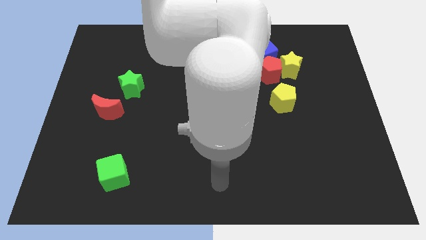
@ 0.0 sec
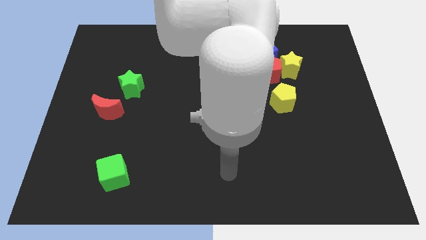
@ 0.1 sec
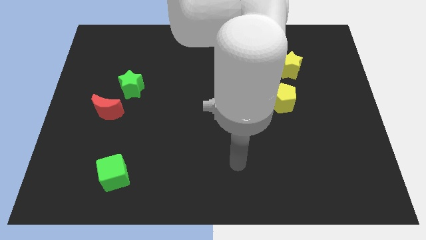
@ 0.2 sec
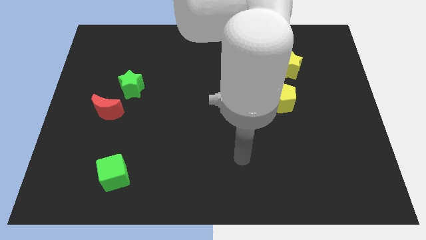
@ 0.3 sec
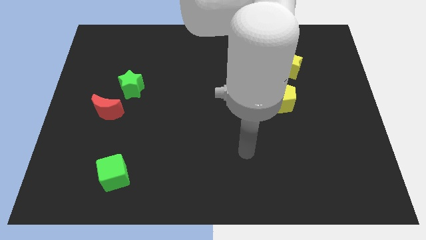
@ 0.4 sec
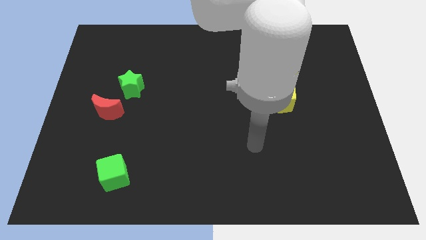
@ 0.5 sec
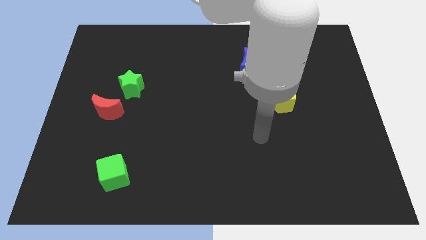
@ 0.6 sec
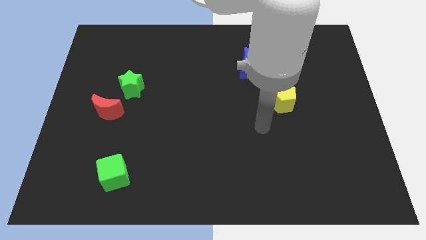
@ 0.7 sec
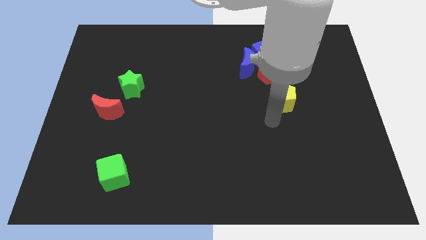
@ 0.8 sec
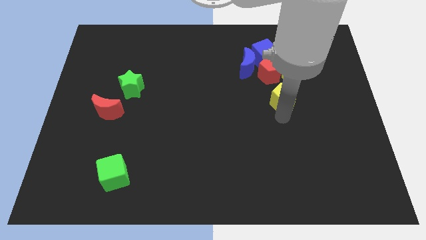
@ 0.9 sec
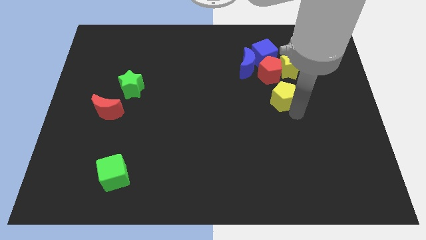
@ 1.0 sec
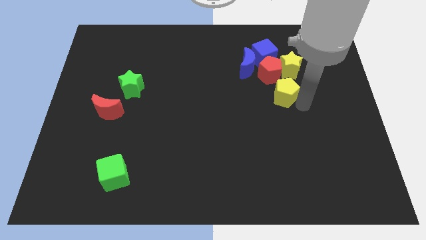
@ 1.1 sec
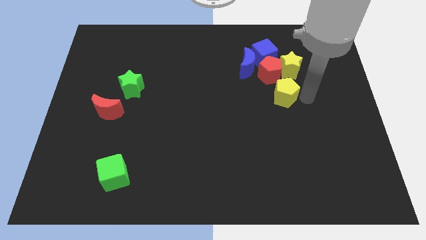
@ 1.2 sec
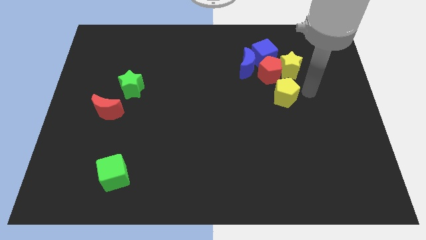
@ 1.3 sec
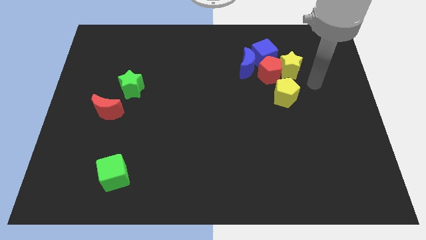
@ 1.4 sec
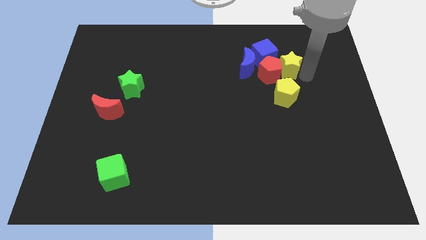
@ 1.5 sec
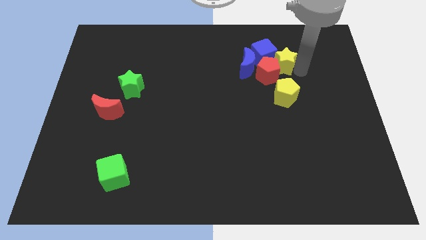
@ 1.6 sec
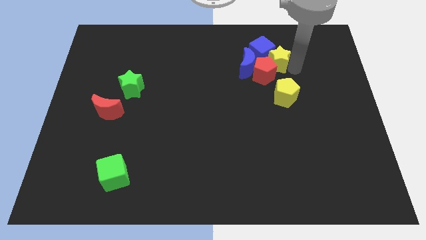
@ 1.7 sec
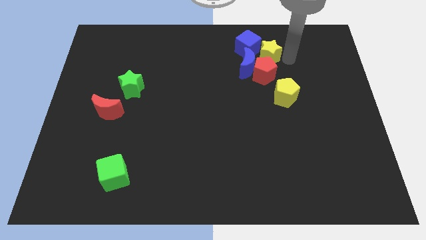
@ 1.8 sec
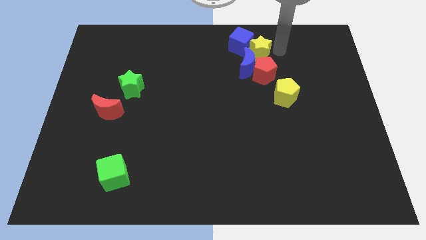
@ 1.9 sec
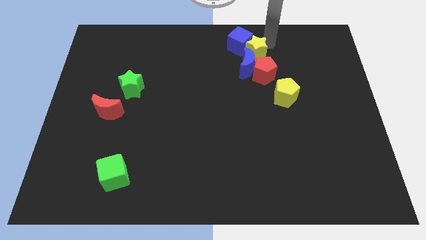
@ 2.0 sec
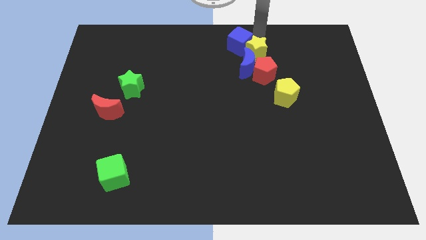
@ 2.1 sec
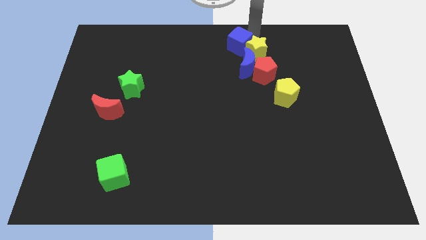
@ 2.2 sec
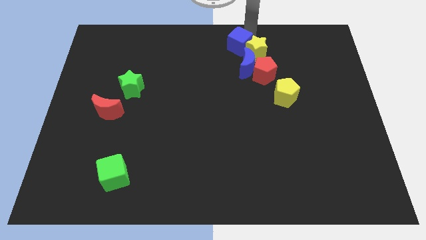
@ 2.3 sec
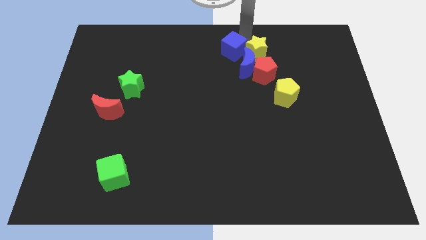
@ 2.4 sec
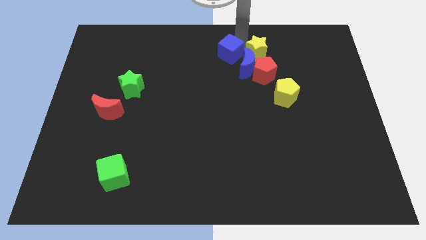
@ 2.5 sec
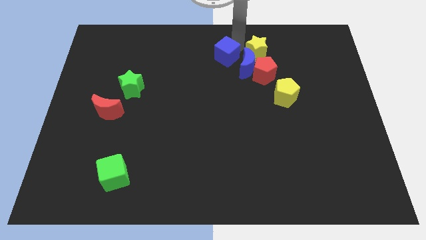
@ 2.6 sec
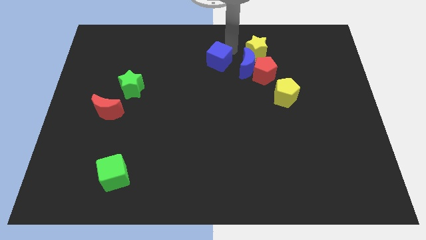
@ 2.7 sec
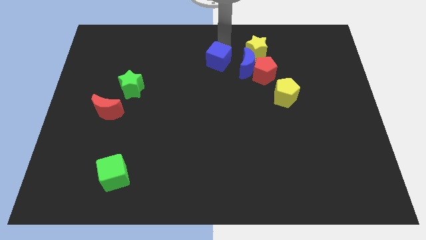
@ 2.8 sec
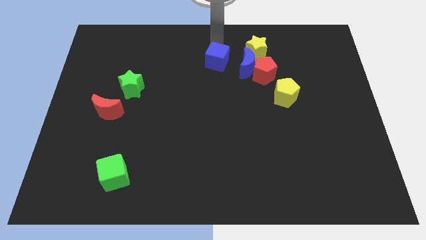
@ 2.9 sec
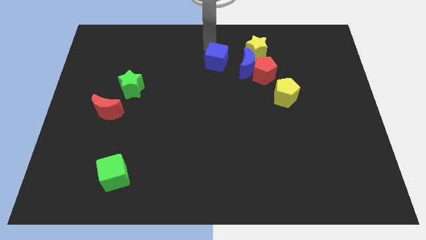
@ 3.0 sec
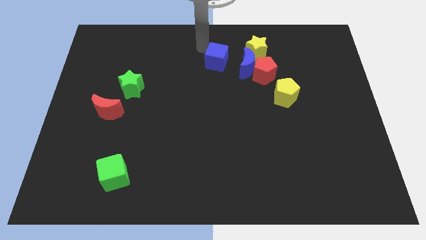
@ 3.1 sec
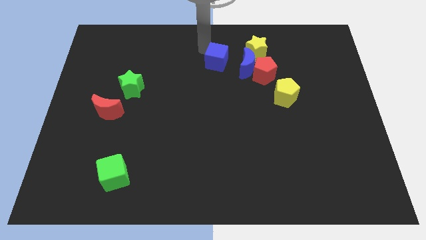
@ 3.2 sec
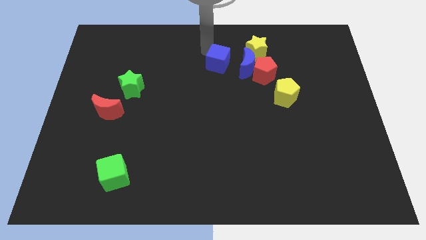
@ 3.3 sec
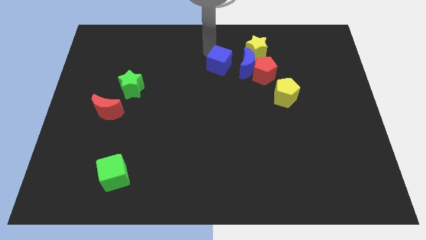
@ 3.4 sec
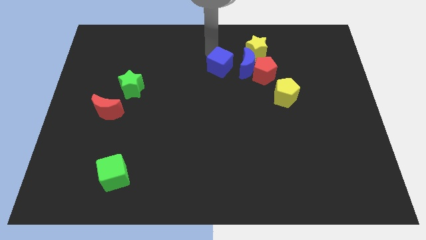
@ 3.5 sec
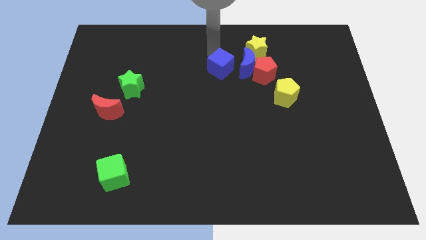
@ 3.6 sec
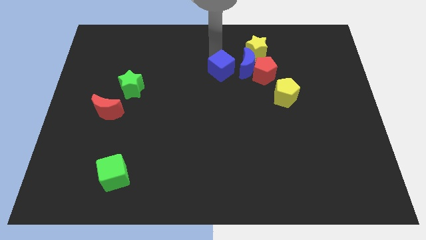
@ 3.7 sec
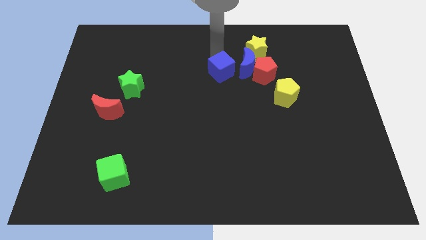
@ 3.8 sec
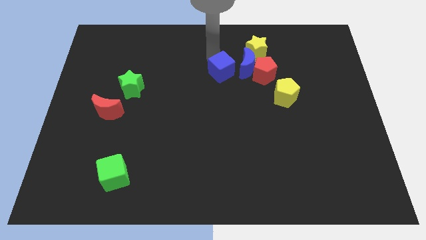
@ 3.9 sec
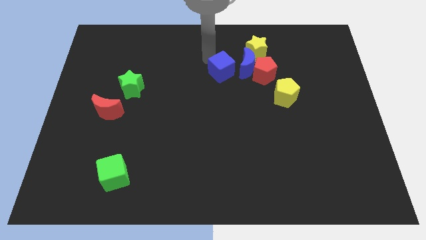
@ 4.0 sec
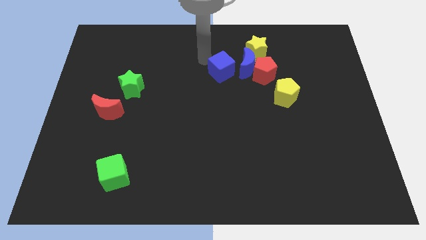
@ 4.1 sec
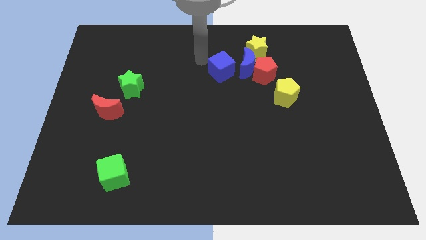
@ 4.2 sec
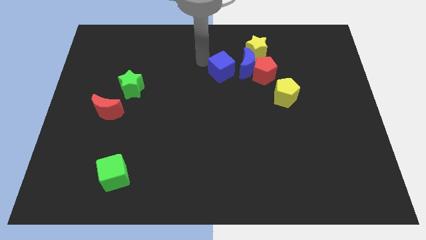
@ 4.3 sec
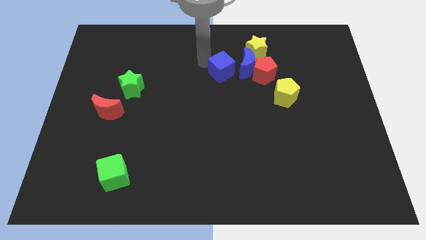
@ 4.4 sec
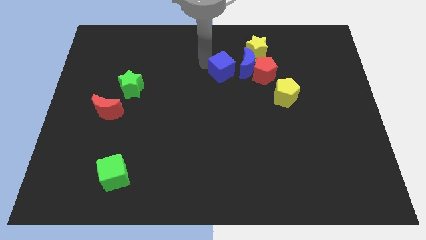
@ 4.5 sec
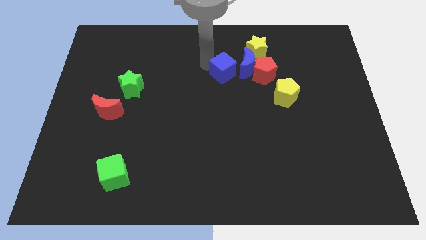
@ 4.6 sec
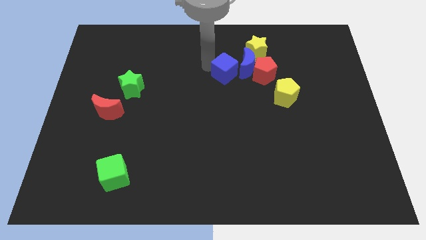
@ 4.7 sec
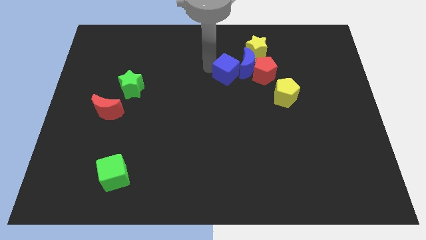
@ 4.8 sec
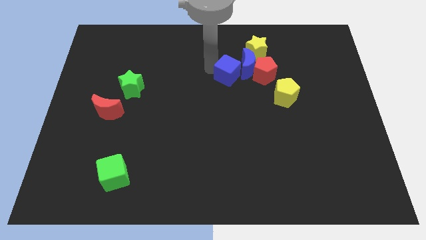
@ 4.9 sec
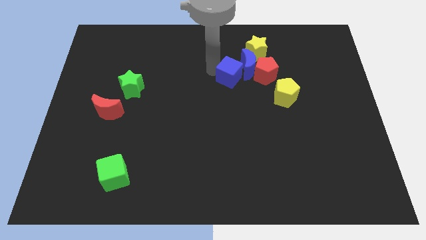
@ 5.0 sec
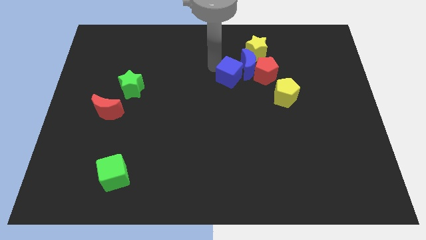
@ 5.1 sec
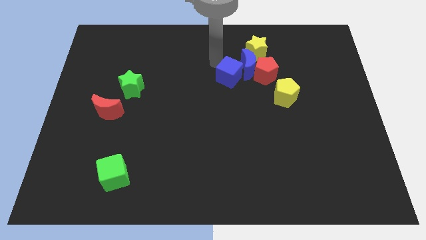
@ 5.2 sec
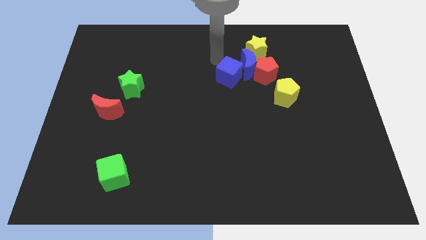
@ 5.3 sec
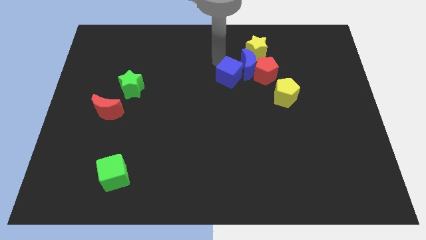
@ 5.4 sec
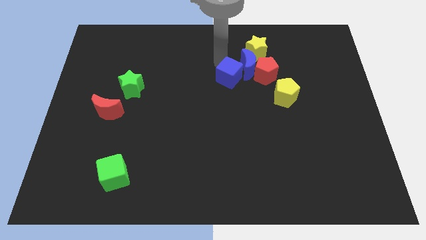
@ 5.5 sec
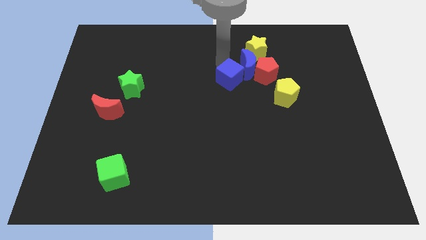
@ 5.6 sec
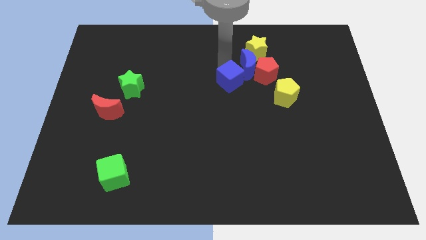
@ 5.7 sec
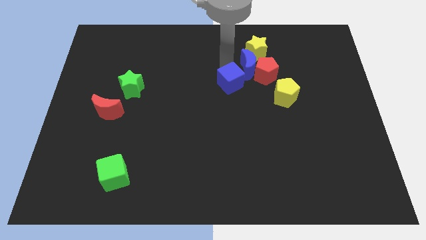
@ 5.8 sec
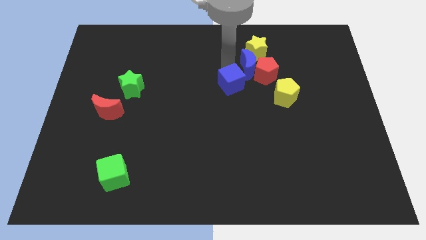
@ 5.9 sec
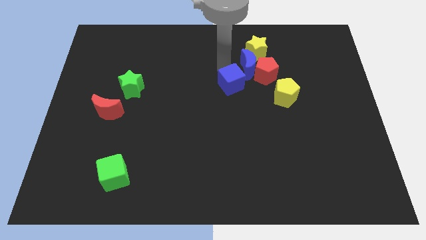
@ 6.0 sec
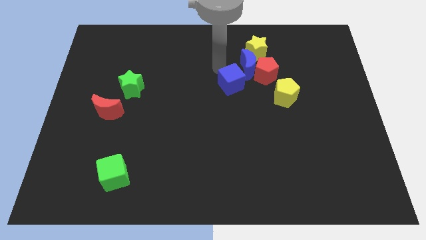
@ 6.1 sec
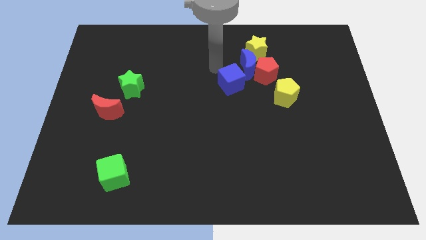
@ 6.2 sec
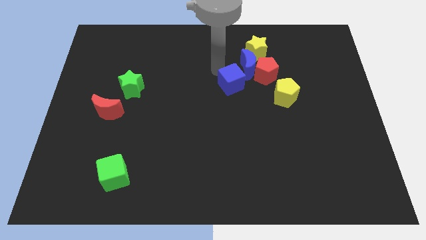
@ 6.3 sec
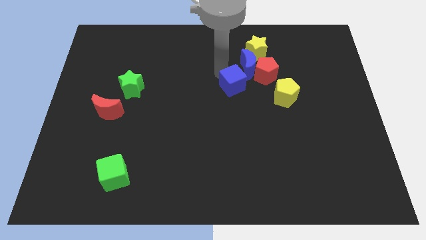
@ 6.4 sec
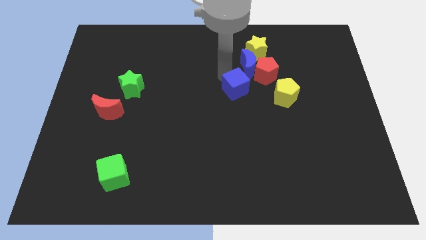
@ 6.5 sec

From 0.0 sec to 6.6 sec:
slightly move the blue cube downwards

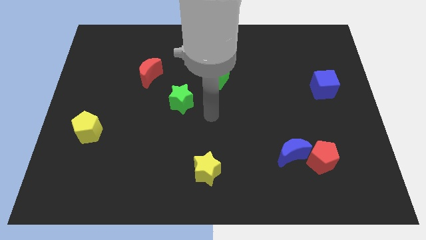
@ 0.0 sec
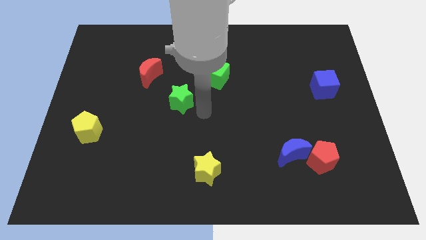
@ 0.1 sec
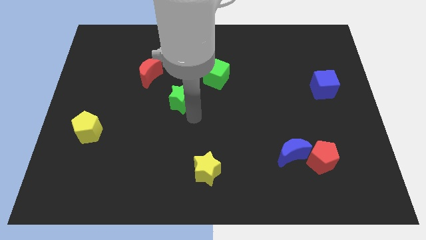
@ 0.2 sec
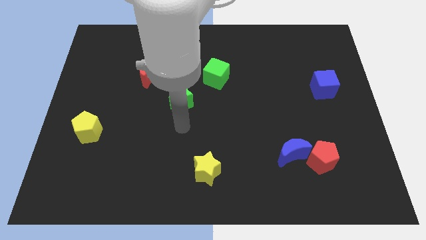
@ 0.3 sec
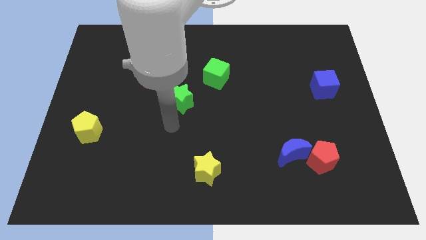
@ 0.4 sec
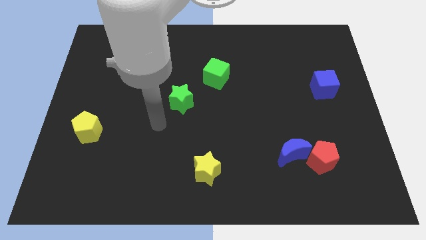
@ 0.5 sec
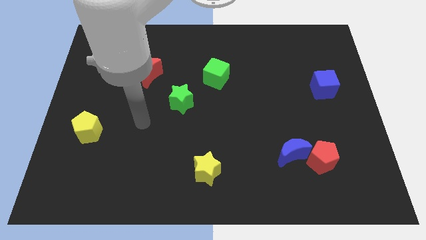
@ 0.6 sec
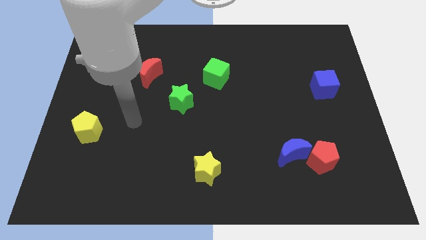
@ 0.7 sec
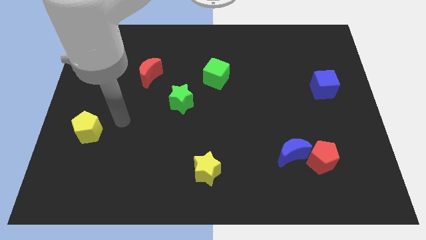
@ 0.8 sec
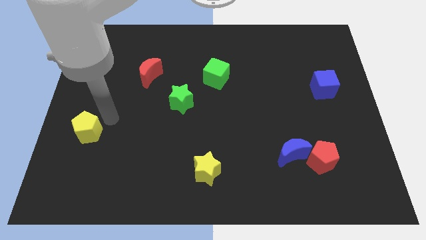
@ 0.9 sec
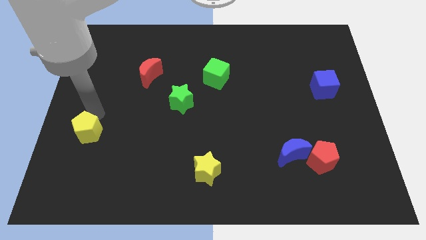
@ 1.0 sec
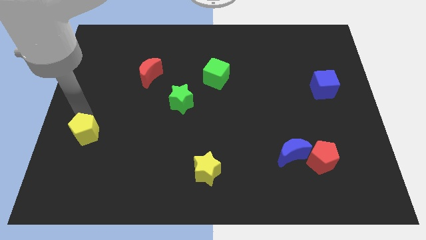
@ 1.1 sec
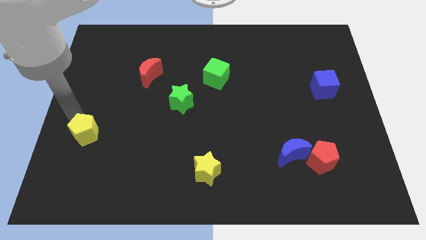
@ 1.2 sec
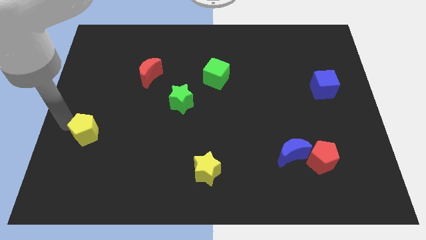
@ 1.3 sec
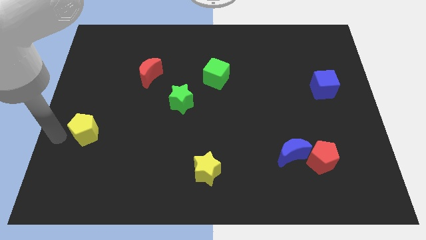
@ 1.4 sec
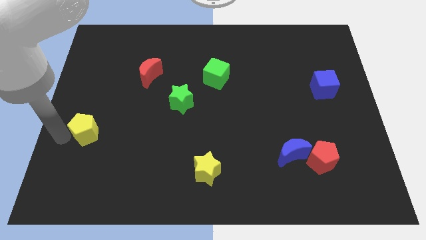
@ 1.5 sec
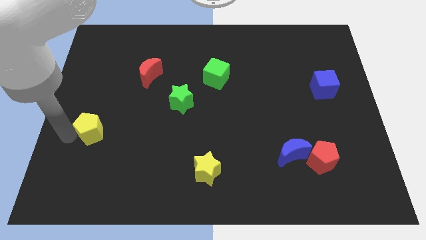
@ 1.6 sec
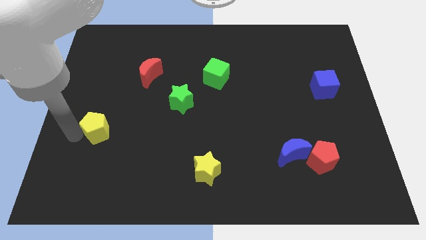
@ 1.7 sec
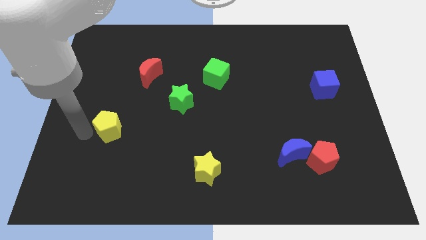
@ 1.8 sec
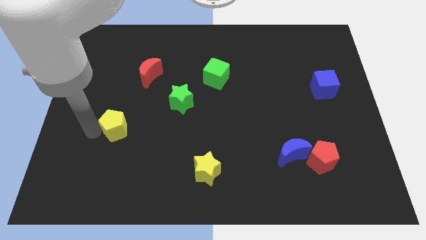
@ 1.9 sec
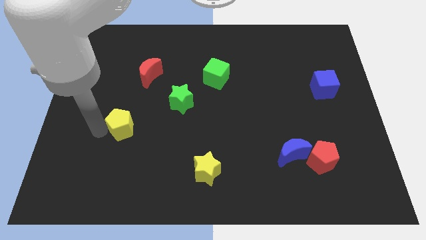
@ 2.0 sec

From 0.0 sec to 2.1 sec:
slightly push the yellow pentagon right
